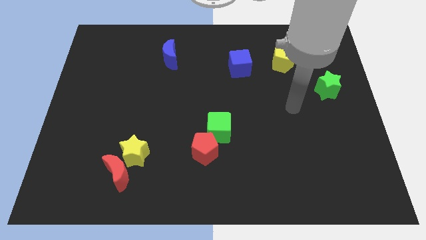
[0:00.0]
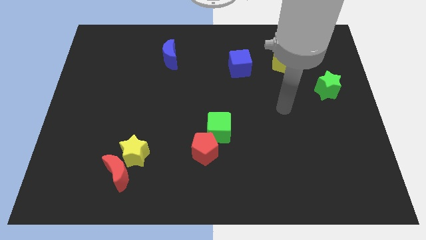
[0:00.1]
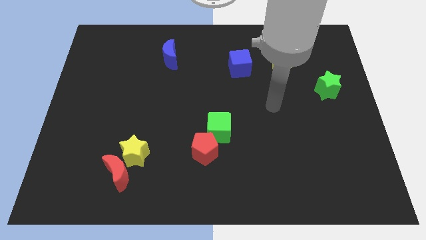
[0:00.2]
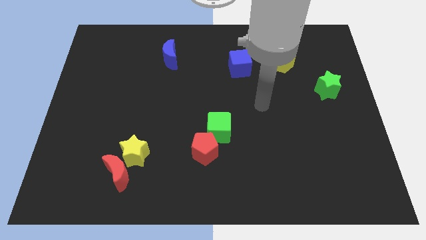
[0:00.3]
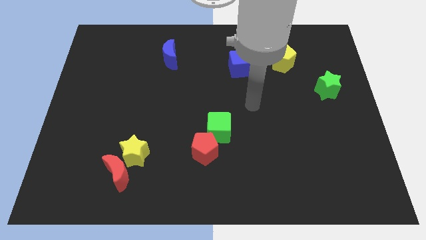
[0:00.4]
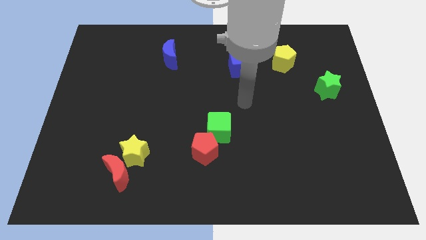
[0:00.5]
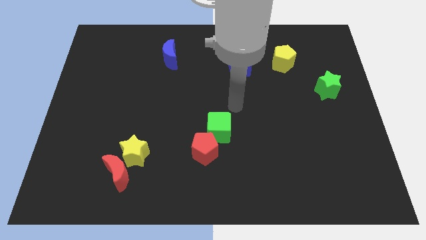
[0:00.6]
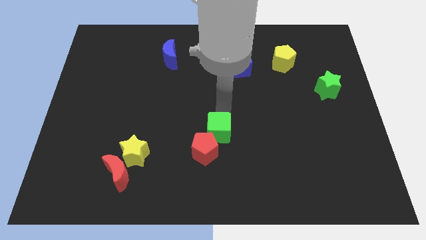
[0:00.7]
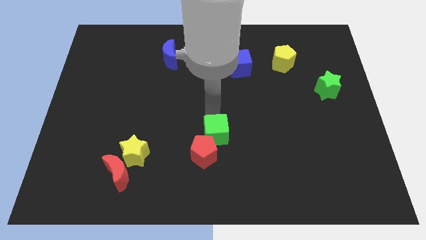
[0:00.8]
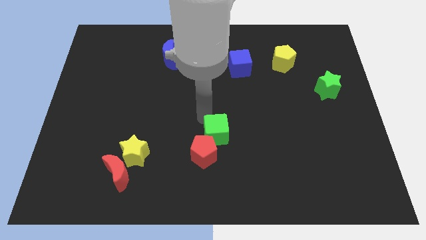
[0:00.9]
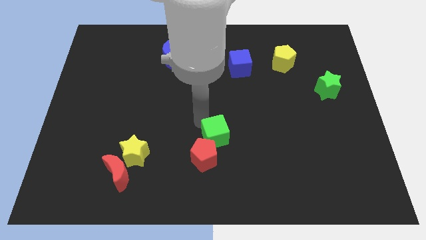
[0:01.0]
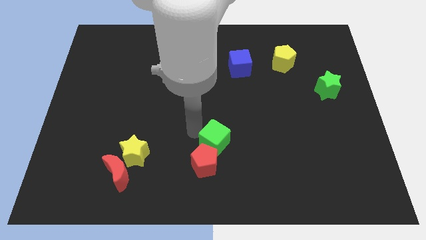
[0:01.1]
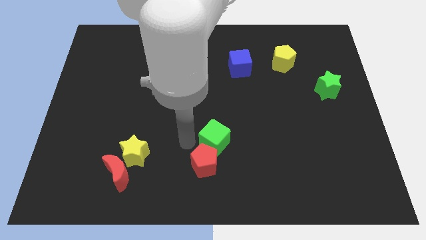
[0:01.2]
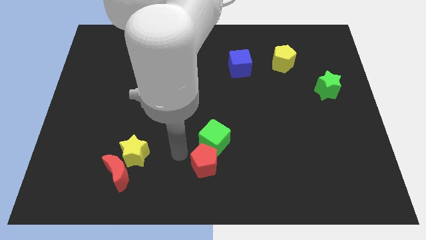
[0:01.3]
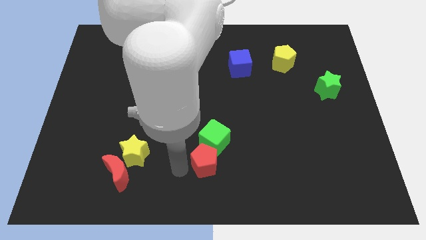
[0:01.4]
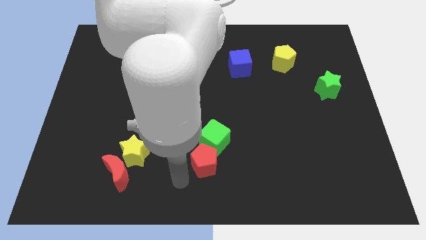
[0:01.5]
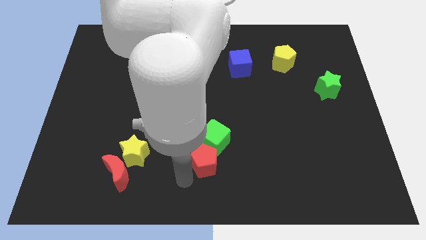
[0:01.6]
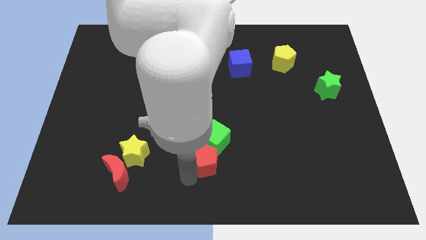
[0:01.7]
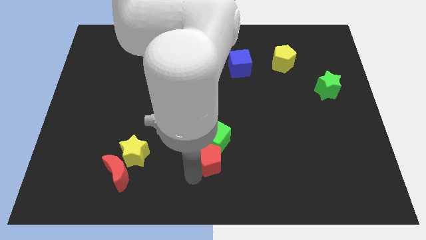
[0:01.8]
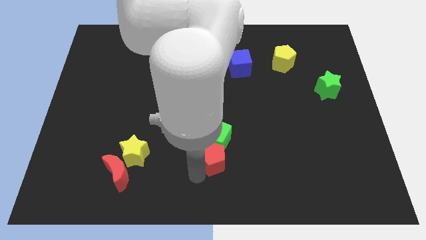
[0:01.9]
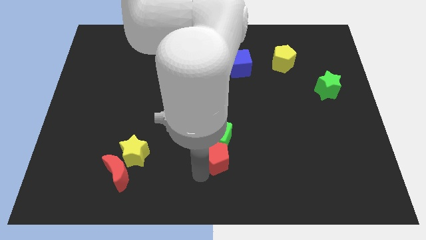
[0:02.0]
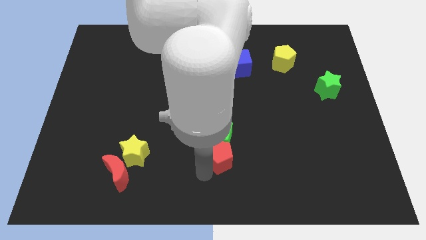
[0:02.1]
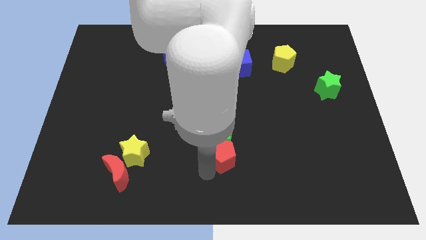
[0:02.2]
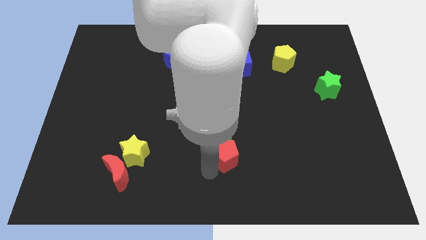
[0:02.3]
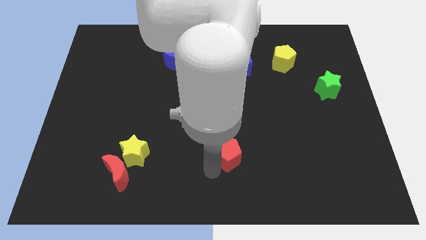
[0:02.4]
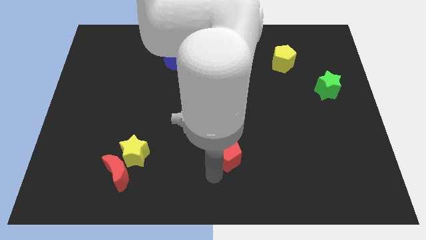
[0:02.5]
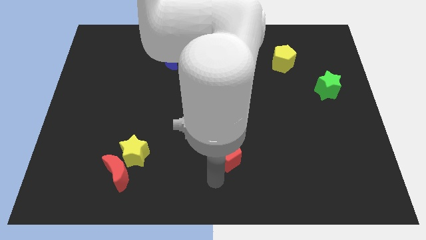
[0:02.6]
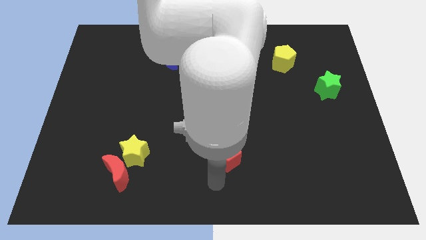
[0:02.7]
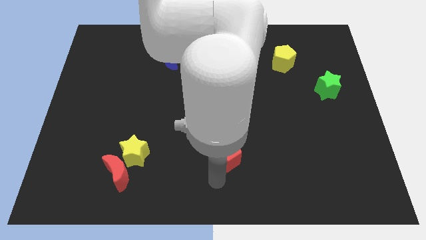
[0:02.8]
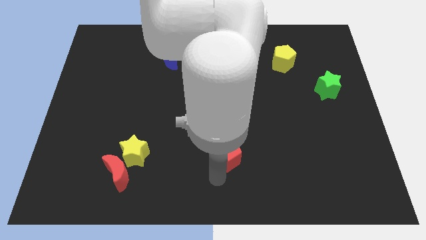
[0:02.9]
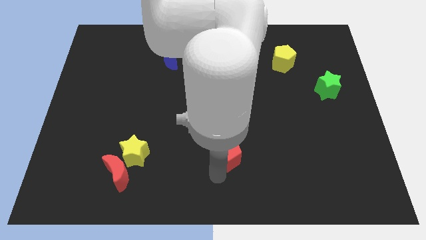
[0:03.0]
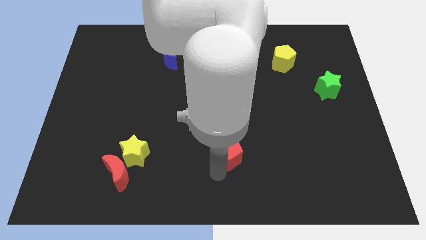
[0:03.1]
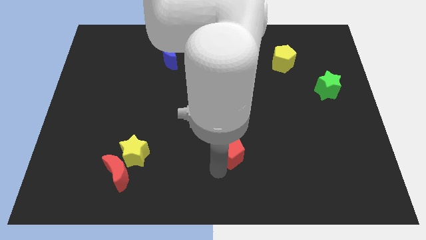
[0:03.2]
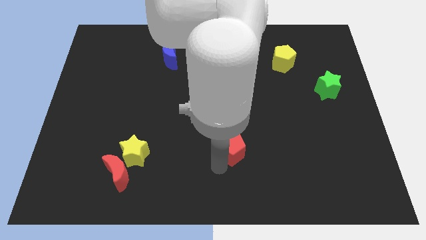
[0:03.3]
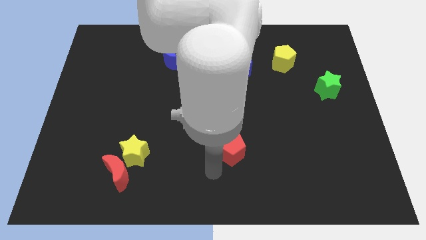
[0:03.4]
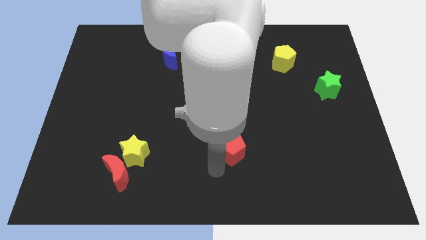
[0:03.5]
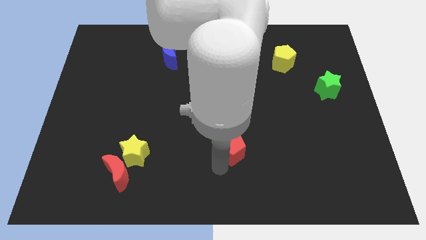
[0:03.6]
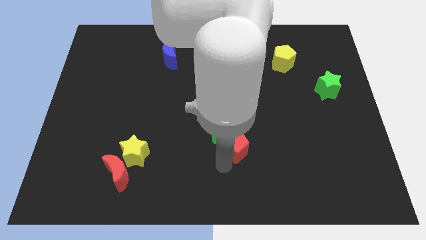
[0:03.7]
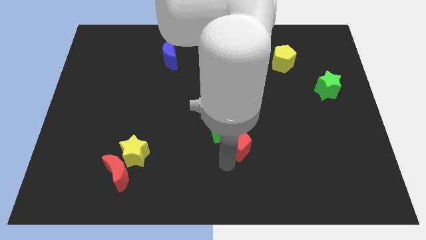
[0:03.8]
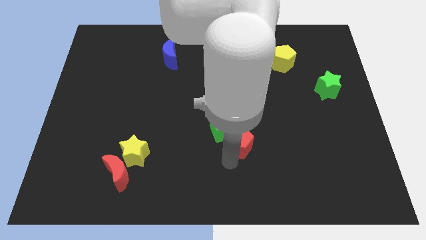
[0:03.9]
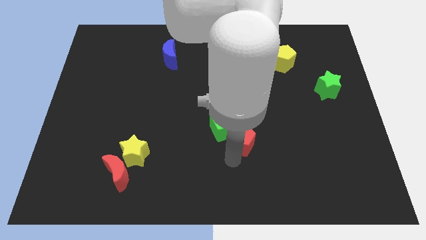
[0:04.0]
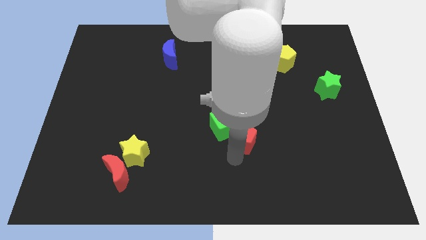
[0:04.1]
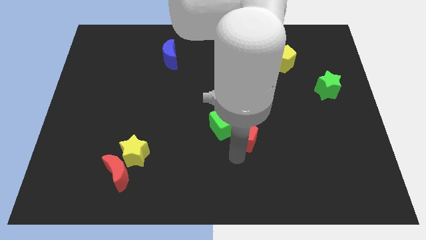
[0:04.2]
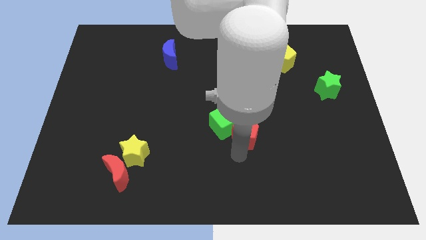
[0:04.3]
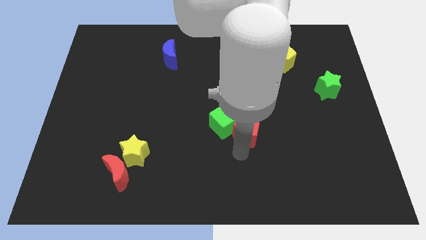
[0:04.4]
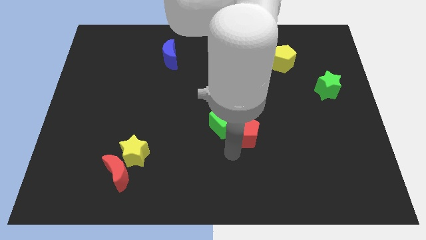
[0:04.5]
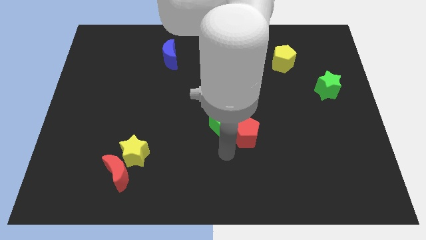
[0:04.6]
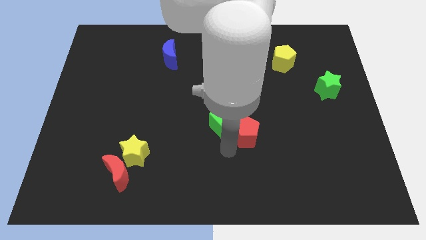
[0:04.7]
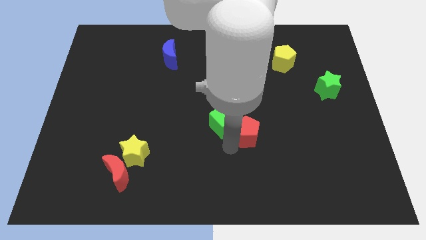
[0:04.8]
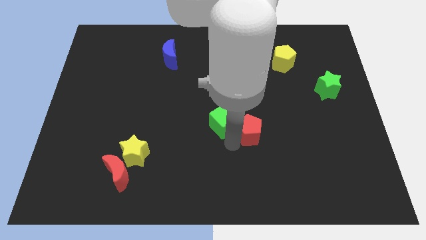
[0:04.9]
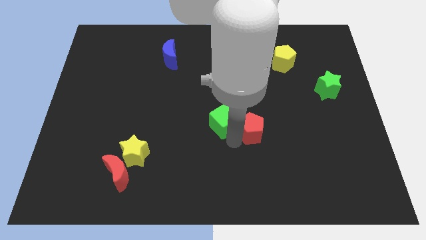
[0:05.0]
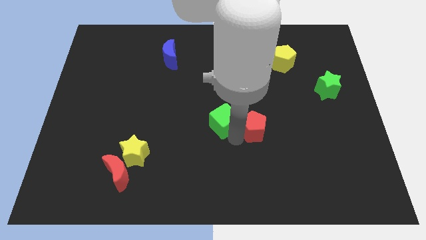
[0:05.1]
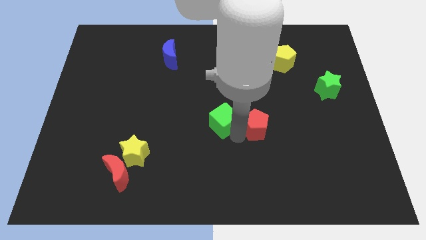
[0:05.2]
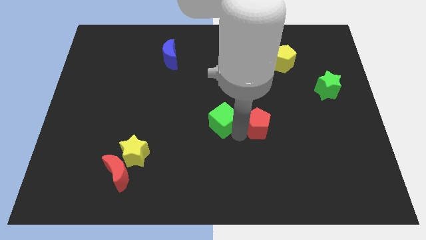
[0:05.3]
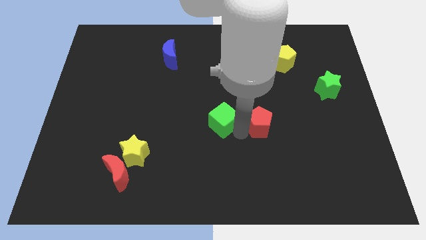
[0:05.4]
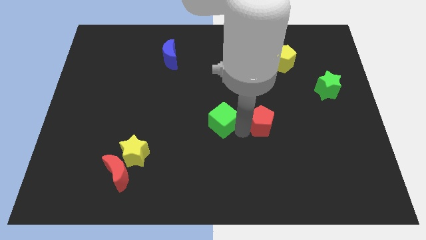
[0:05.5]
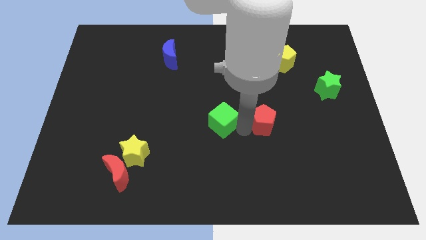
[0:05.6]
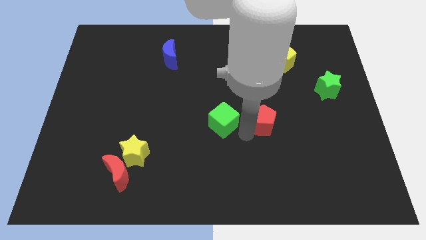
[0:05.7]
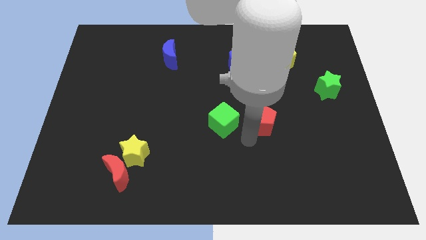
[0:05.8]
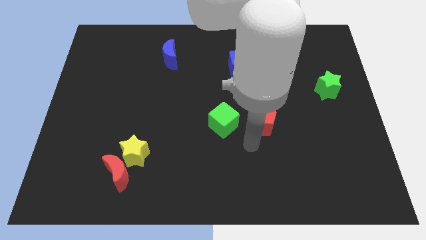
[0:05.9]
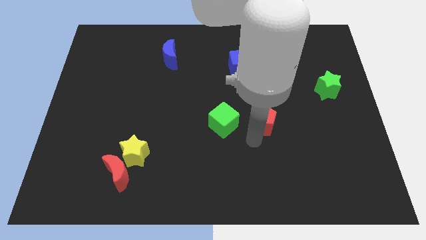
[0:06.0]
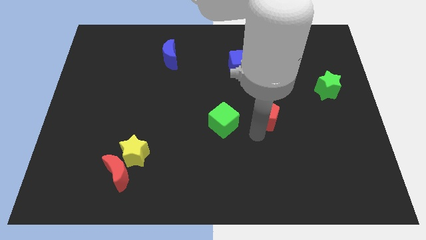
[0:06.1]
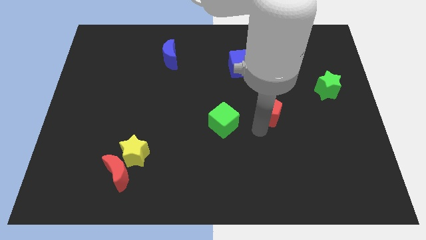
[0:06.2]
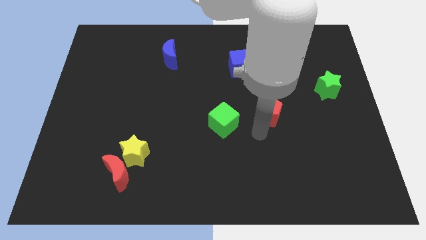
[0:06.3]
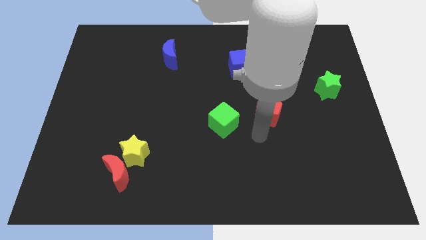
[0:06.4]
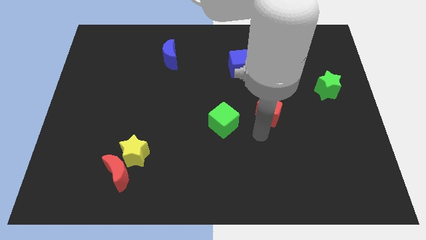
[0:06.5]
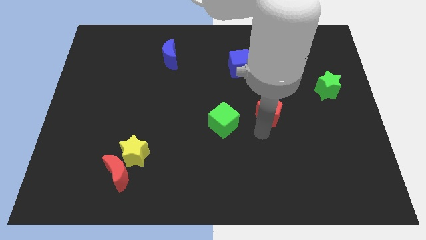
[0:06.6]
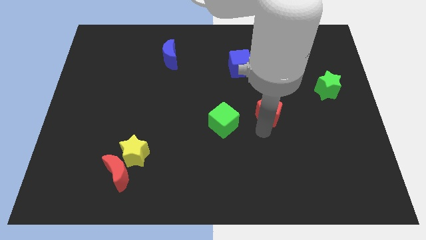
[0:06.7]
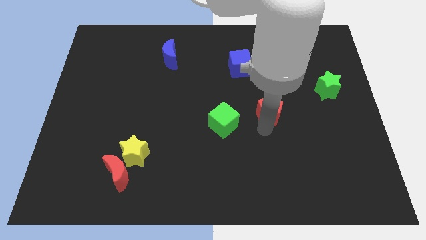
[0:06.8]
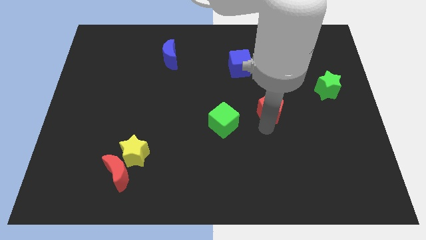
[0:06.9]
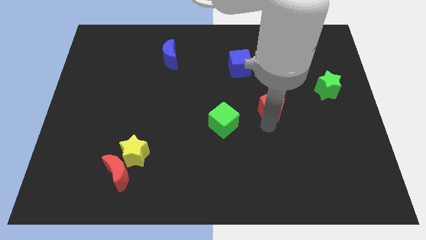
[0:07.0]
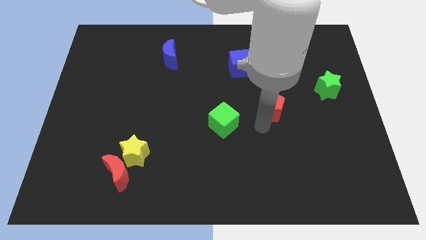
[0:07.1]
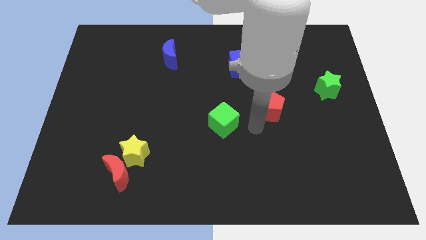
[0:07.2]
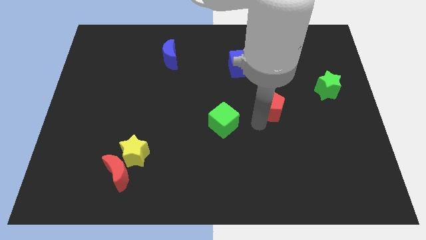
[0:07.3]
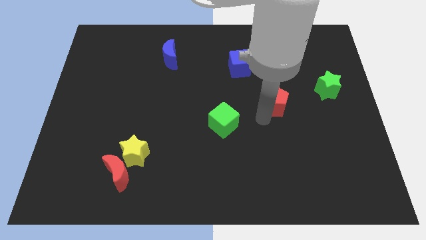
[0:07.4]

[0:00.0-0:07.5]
slide the red pentagon to the bottom of the yellow pentagon
